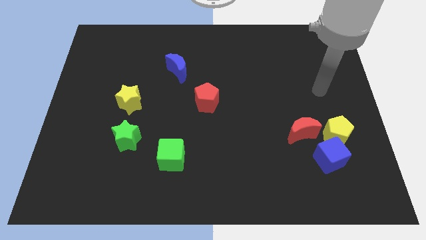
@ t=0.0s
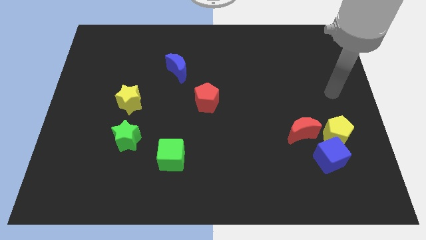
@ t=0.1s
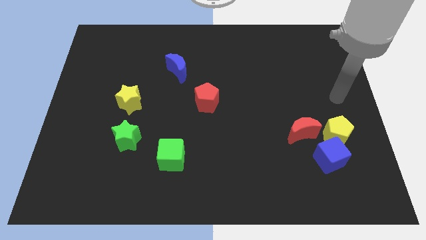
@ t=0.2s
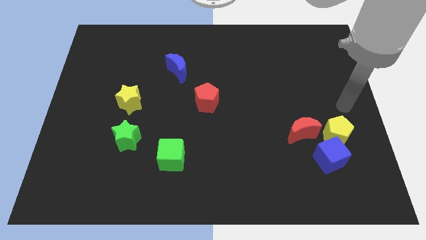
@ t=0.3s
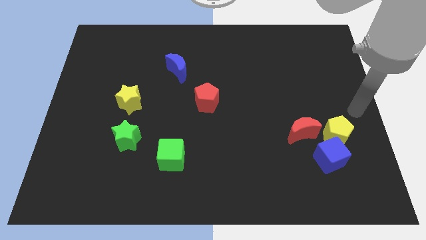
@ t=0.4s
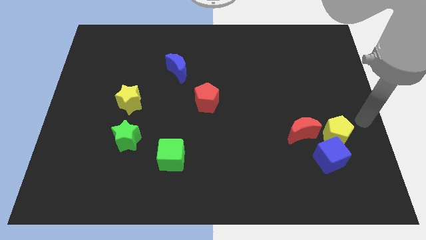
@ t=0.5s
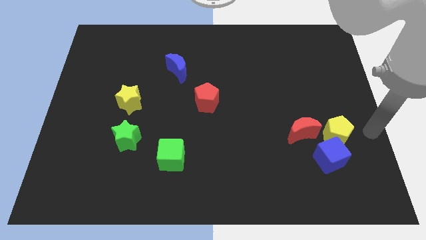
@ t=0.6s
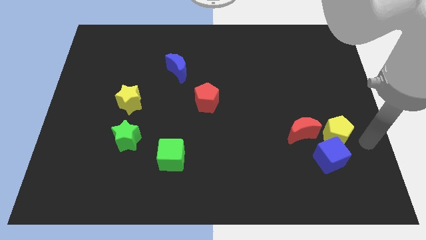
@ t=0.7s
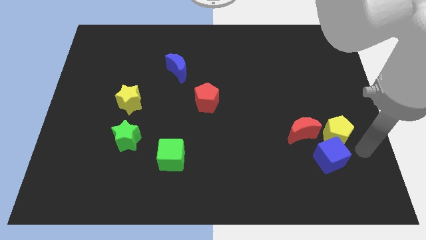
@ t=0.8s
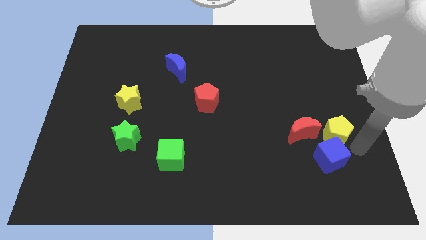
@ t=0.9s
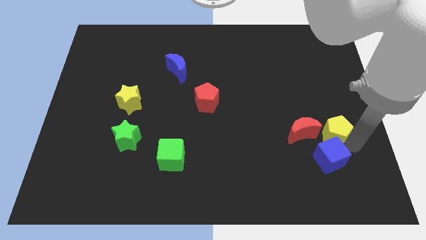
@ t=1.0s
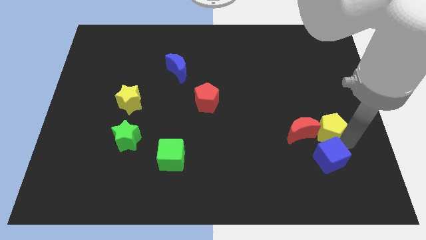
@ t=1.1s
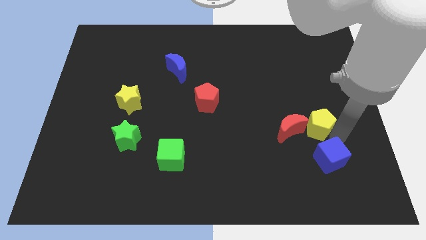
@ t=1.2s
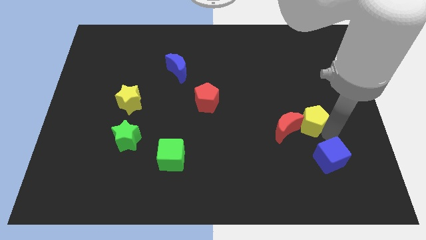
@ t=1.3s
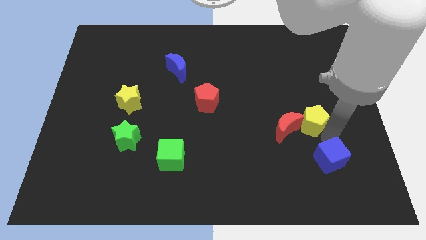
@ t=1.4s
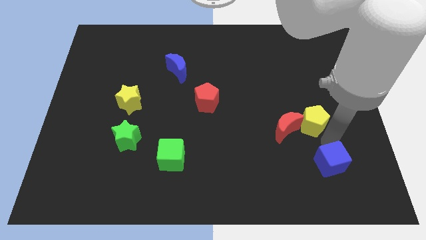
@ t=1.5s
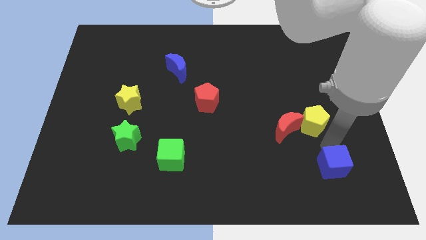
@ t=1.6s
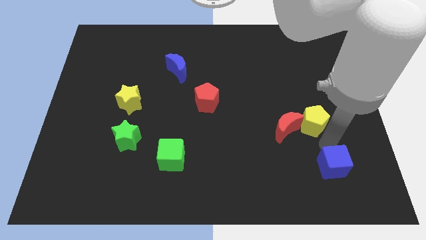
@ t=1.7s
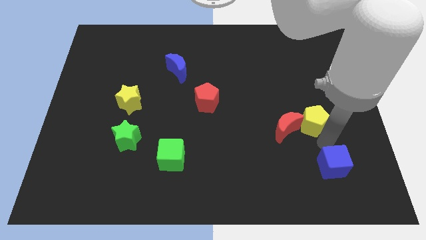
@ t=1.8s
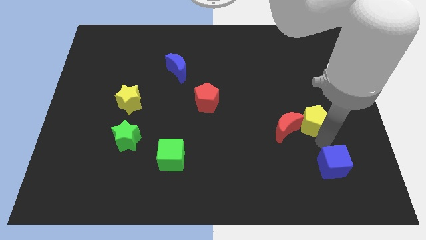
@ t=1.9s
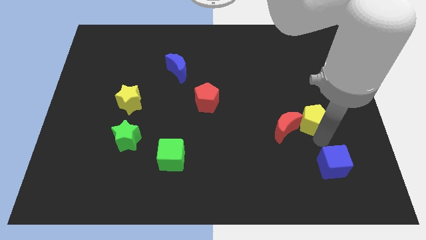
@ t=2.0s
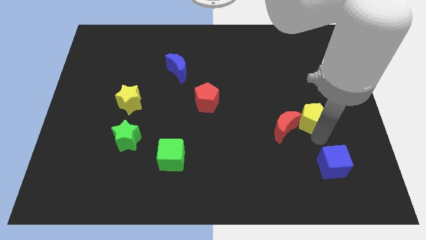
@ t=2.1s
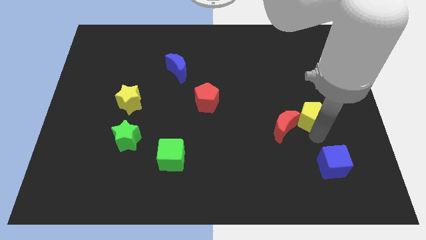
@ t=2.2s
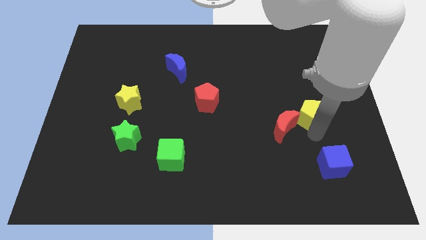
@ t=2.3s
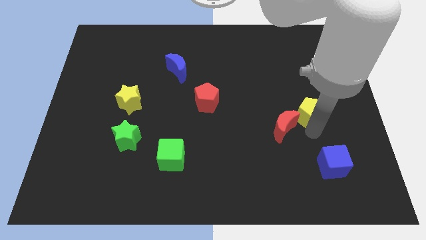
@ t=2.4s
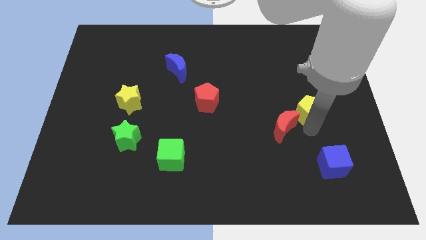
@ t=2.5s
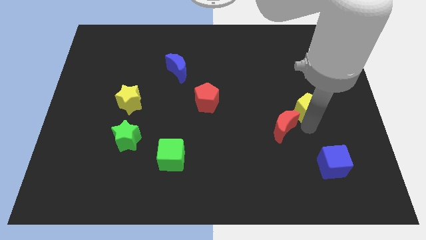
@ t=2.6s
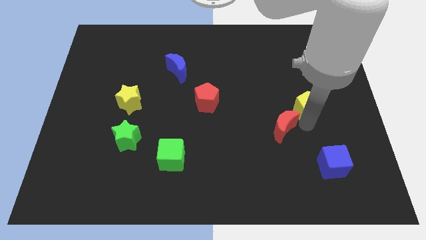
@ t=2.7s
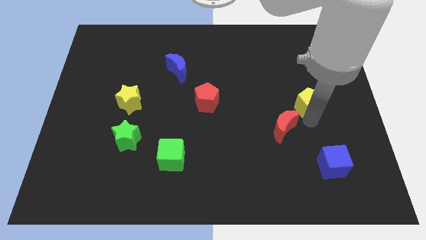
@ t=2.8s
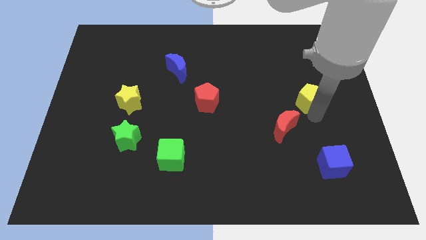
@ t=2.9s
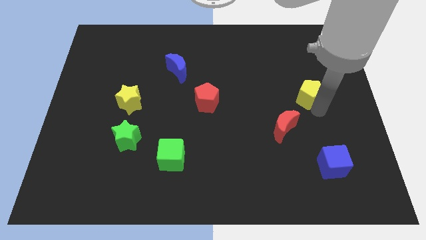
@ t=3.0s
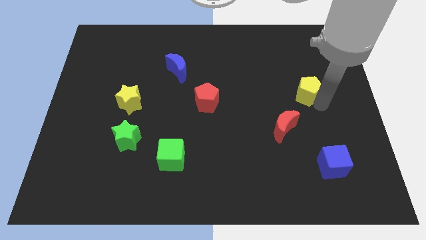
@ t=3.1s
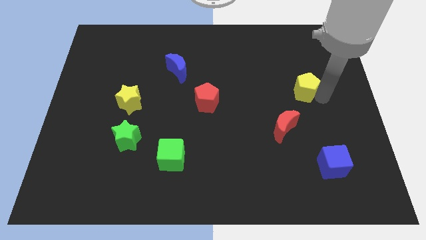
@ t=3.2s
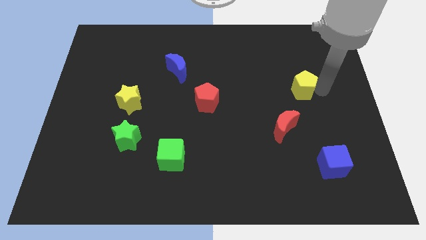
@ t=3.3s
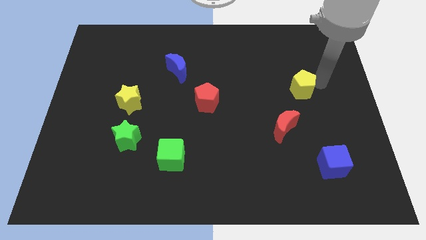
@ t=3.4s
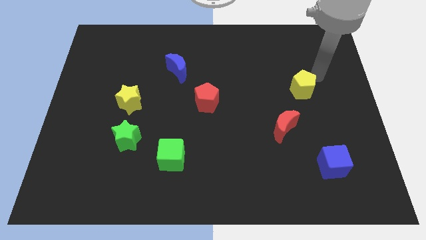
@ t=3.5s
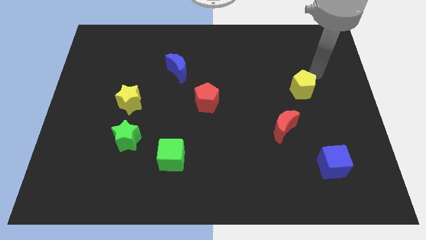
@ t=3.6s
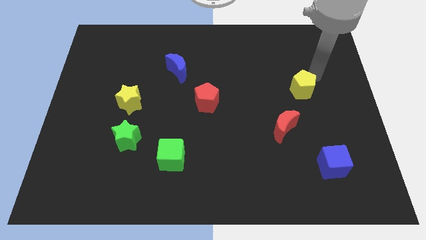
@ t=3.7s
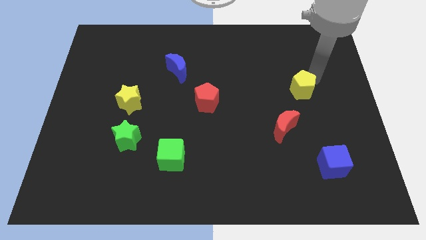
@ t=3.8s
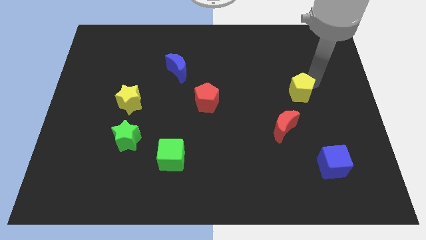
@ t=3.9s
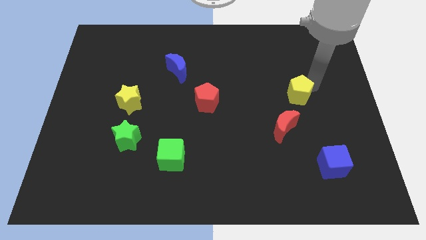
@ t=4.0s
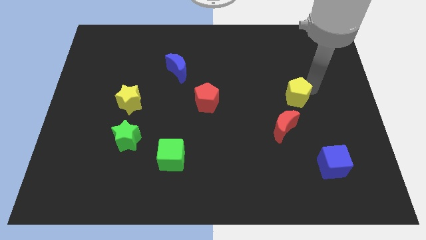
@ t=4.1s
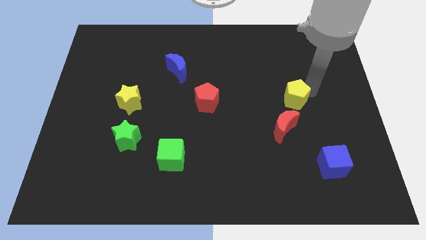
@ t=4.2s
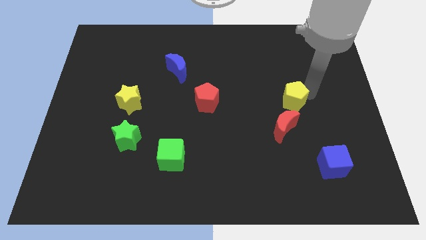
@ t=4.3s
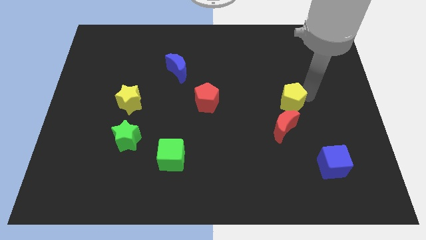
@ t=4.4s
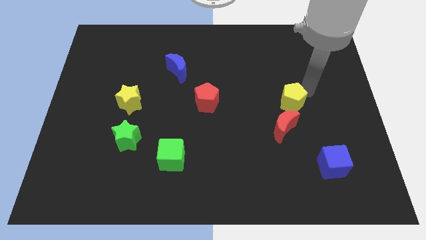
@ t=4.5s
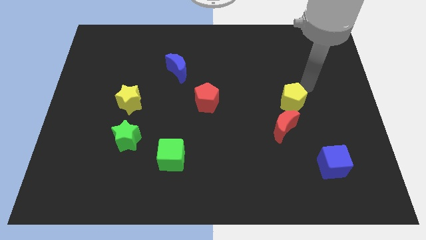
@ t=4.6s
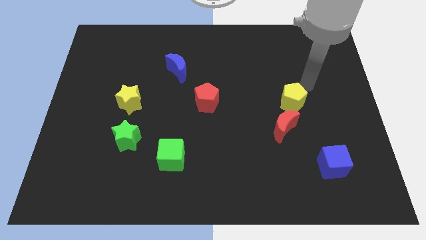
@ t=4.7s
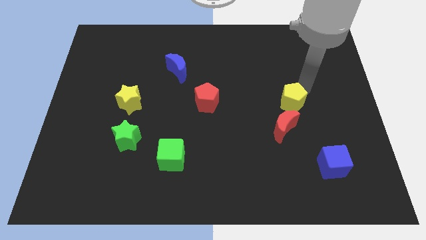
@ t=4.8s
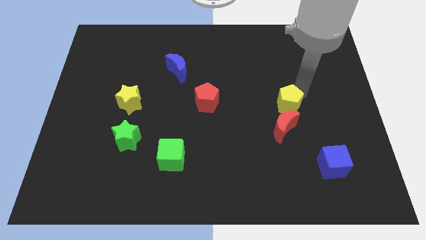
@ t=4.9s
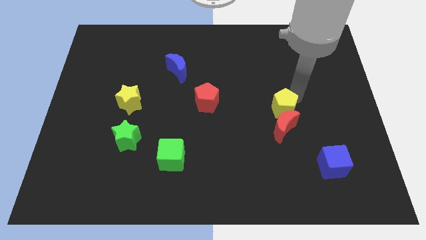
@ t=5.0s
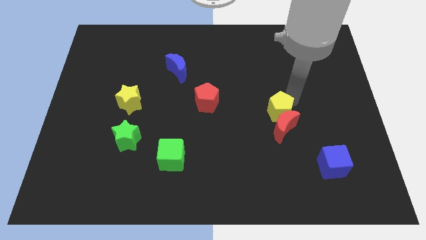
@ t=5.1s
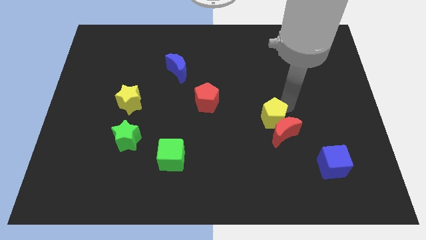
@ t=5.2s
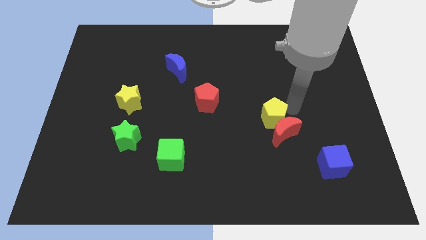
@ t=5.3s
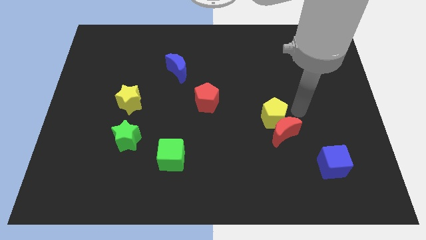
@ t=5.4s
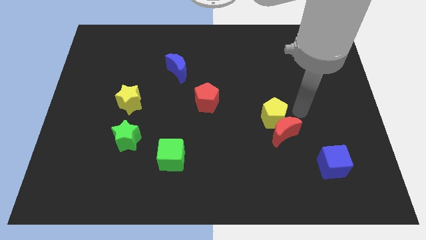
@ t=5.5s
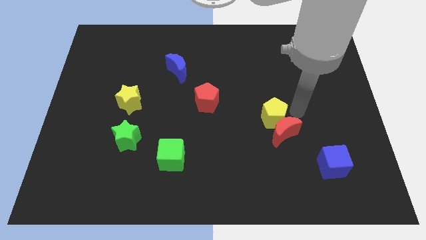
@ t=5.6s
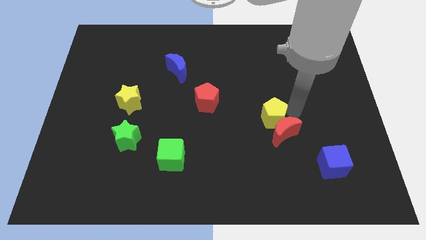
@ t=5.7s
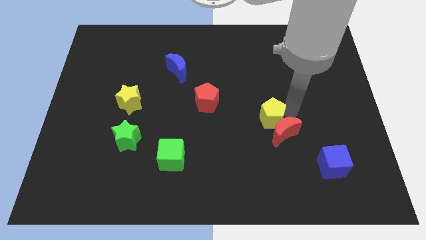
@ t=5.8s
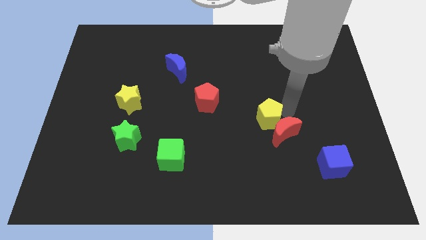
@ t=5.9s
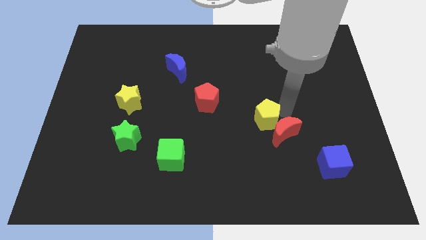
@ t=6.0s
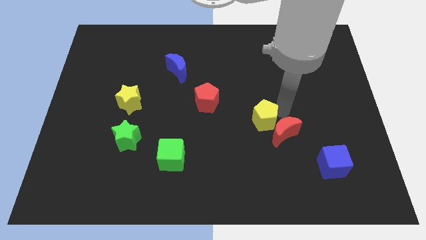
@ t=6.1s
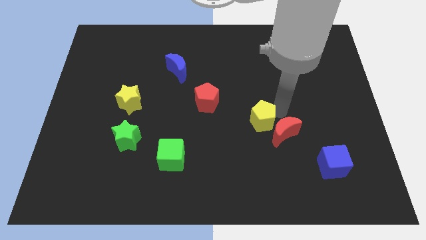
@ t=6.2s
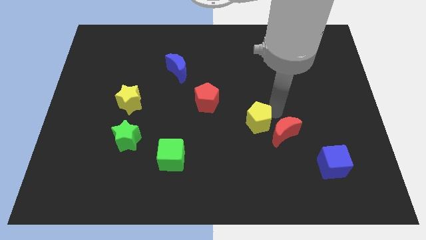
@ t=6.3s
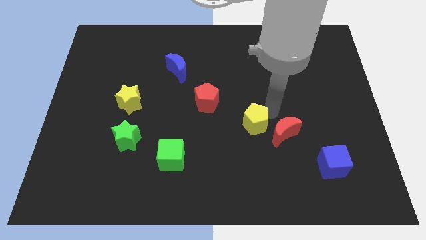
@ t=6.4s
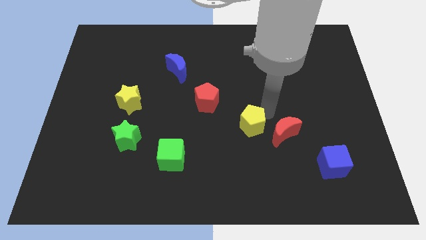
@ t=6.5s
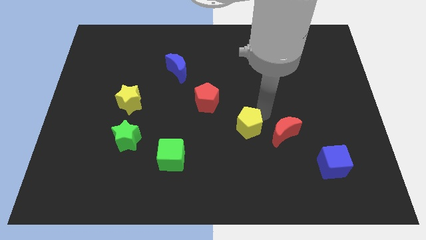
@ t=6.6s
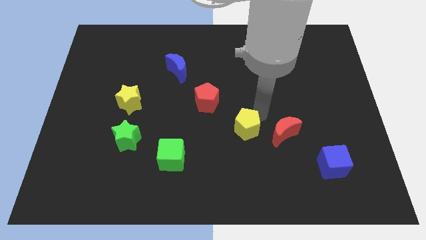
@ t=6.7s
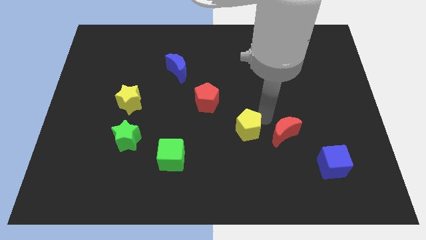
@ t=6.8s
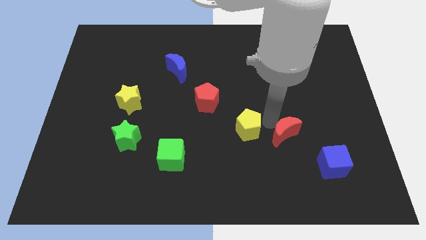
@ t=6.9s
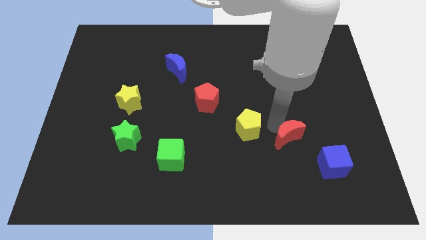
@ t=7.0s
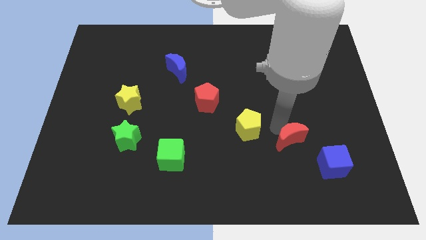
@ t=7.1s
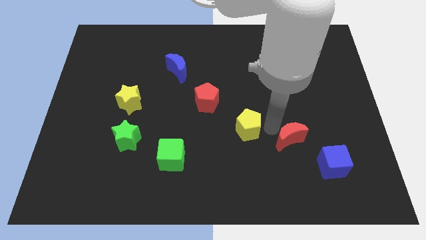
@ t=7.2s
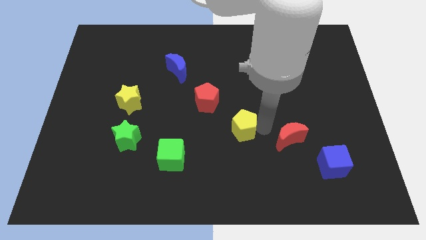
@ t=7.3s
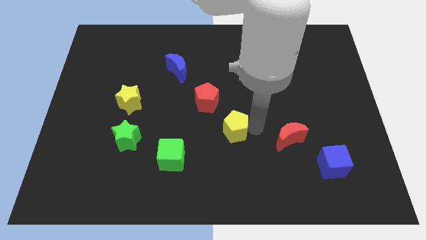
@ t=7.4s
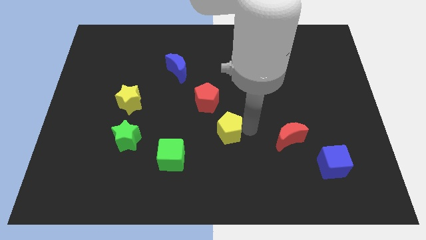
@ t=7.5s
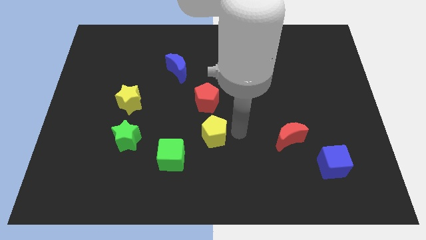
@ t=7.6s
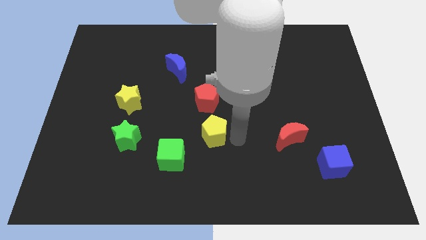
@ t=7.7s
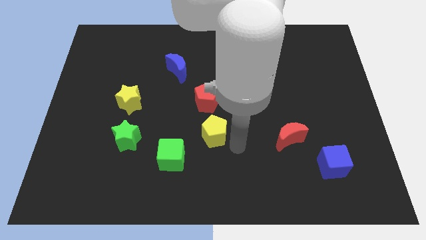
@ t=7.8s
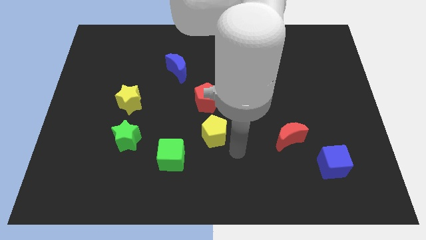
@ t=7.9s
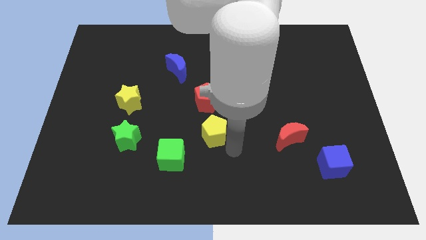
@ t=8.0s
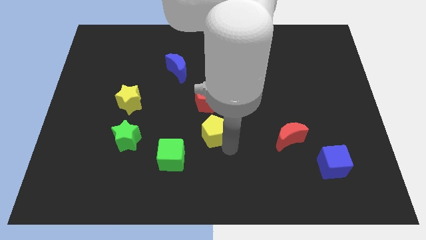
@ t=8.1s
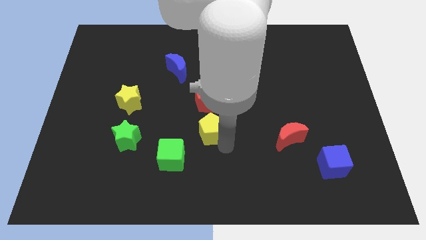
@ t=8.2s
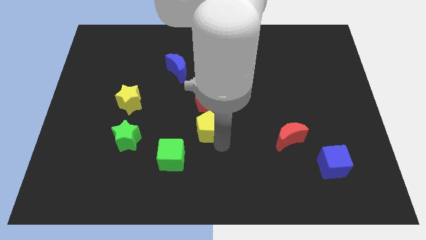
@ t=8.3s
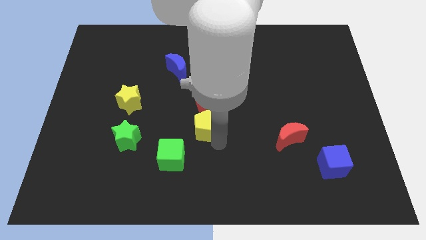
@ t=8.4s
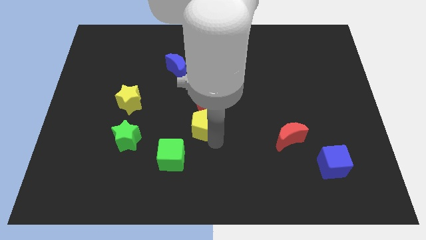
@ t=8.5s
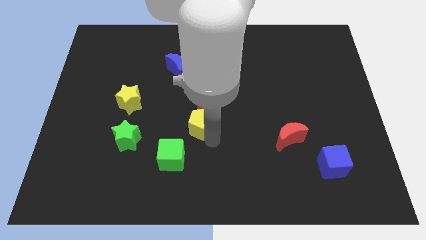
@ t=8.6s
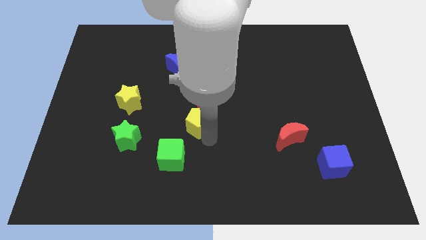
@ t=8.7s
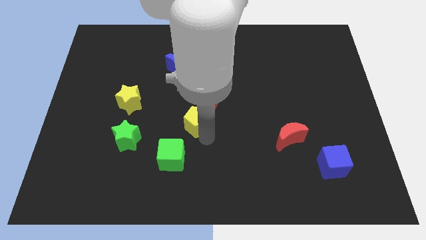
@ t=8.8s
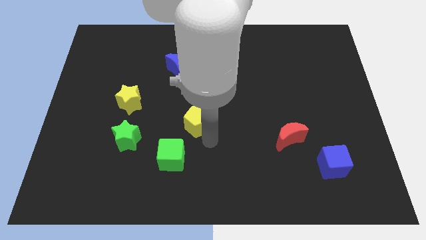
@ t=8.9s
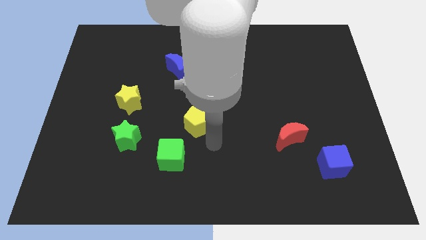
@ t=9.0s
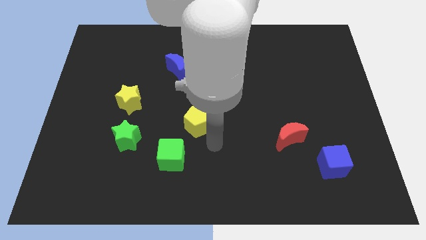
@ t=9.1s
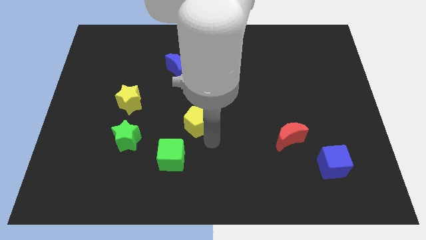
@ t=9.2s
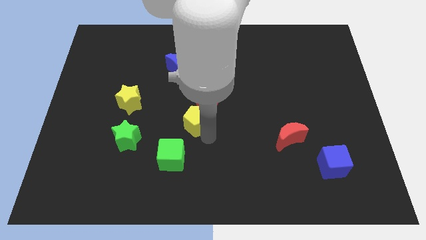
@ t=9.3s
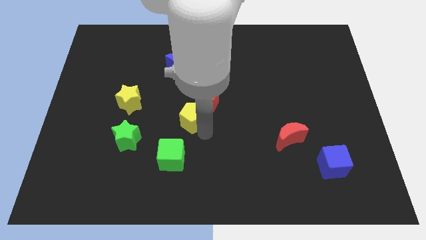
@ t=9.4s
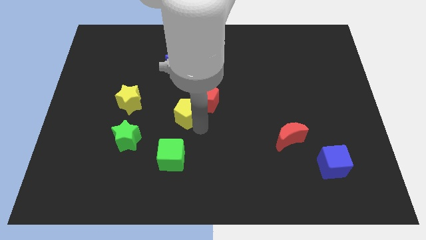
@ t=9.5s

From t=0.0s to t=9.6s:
push the yellow pentagon to the right of the yellow star
